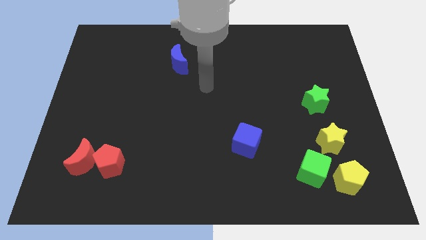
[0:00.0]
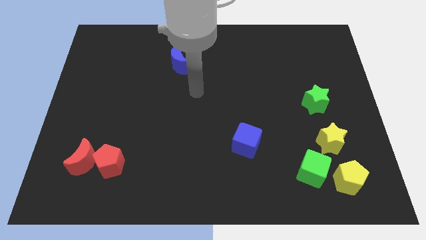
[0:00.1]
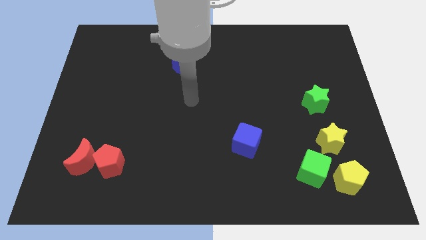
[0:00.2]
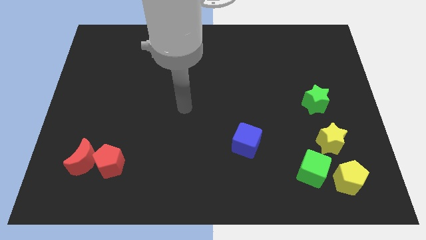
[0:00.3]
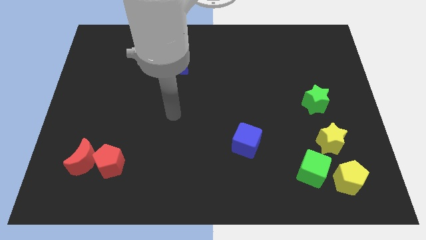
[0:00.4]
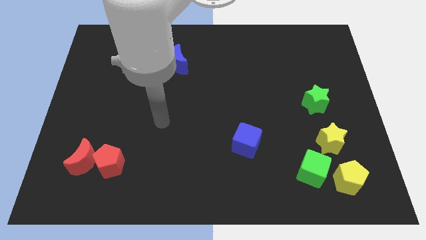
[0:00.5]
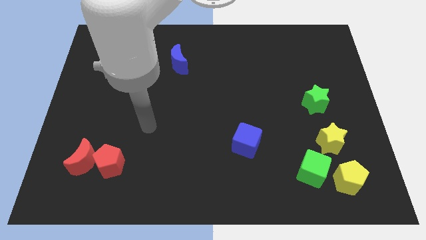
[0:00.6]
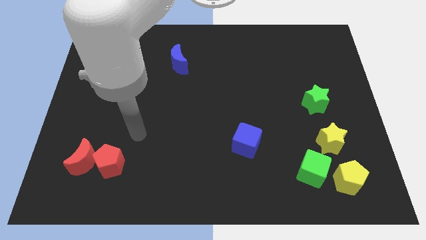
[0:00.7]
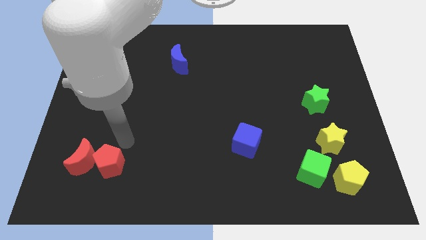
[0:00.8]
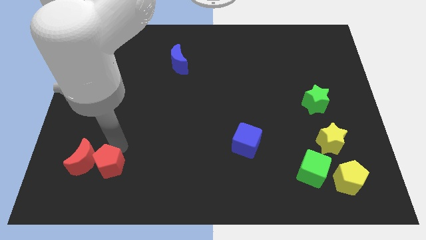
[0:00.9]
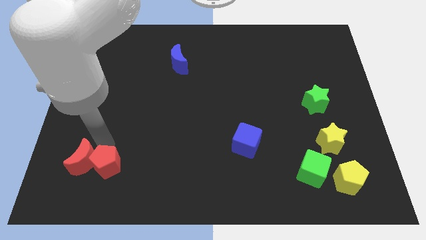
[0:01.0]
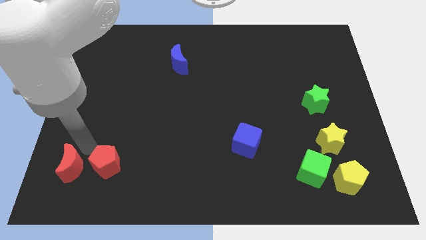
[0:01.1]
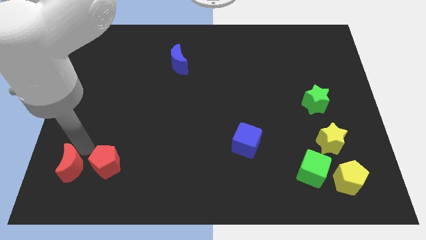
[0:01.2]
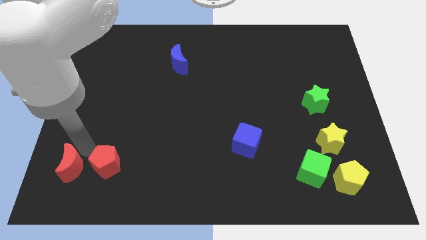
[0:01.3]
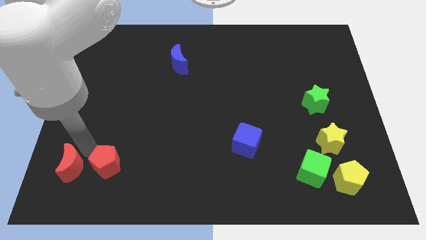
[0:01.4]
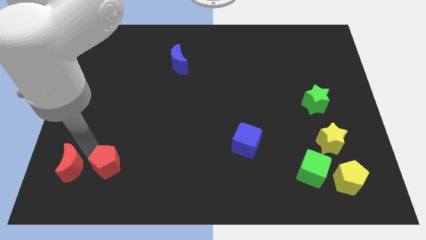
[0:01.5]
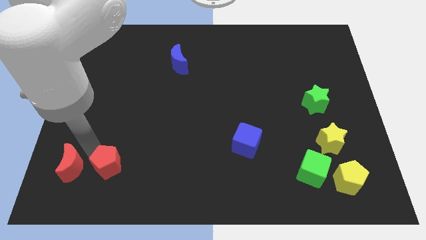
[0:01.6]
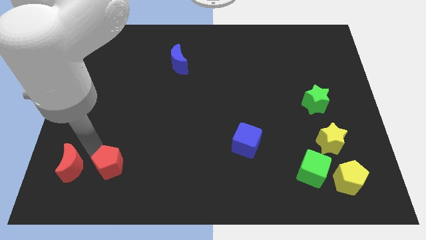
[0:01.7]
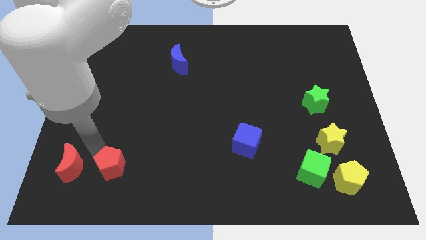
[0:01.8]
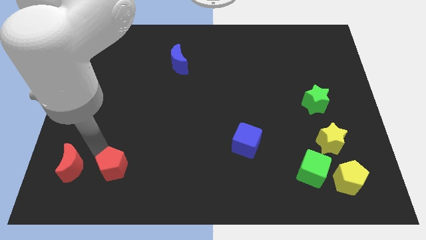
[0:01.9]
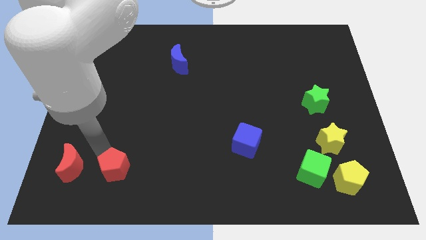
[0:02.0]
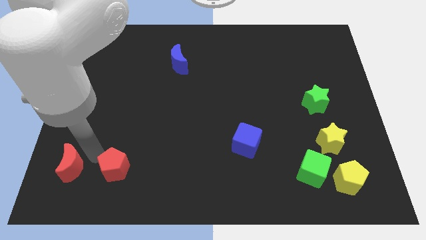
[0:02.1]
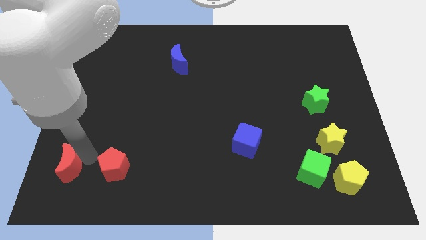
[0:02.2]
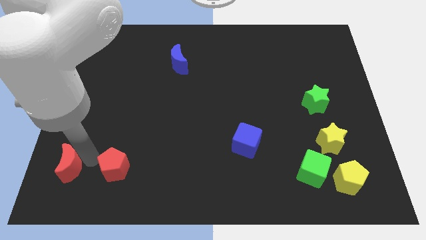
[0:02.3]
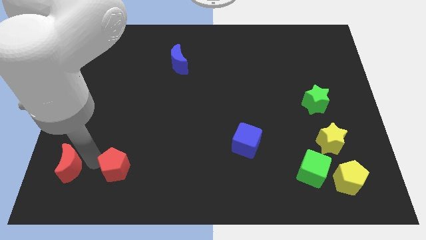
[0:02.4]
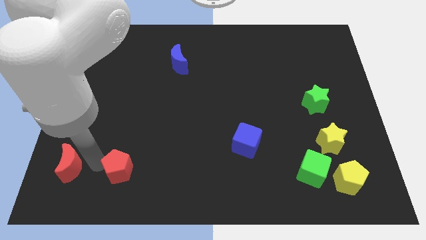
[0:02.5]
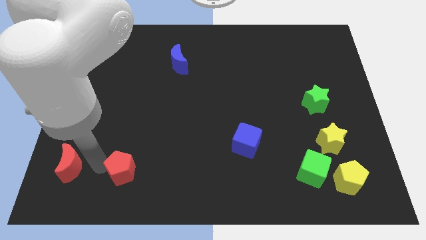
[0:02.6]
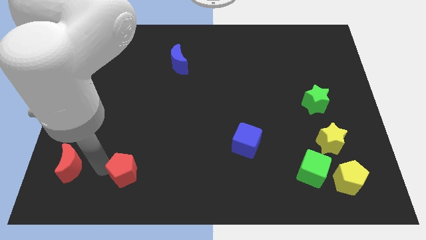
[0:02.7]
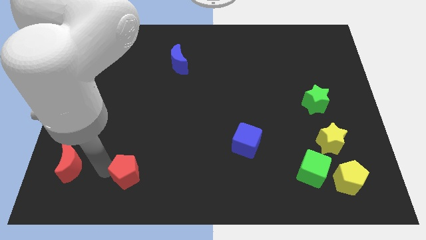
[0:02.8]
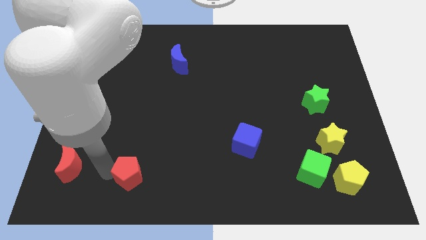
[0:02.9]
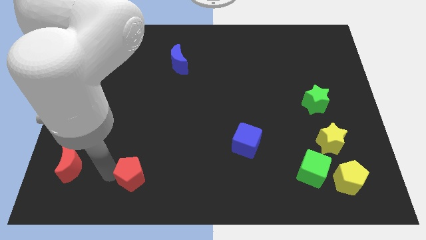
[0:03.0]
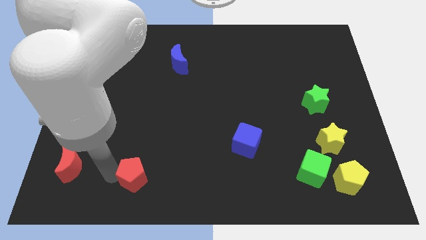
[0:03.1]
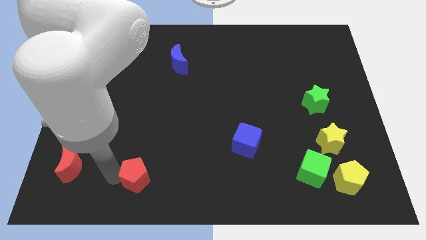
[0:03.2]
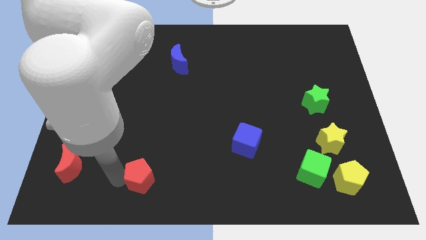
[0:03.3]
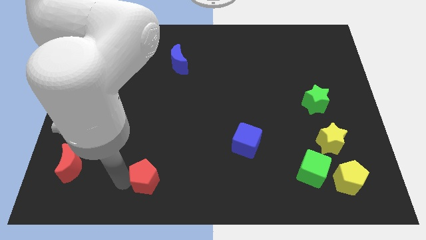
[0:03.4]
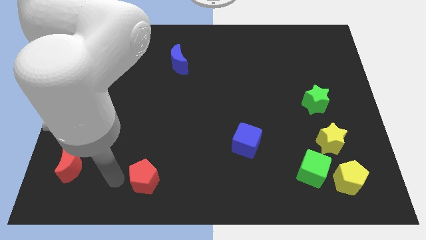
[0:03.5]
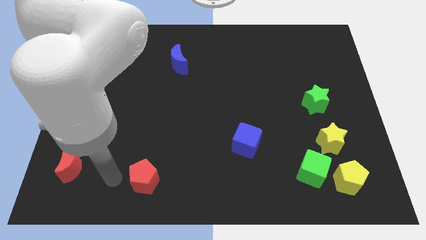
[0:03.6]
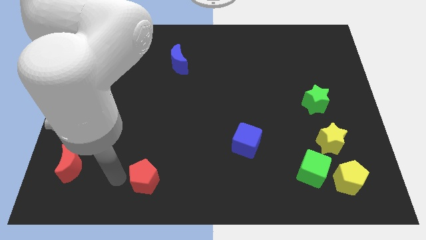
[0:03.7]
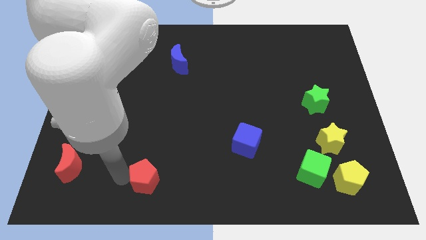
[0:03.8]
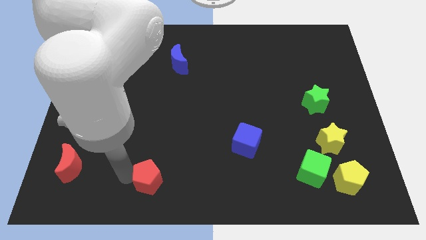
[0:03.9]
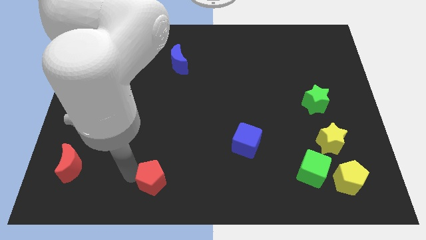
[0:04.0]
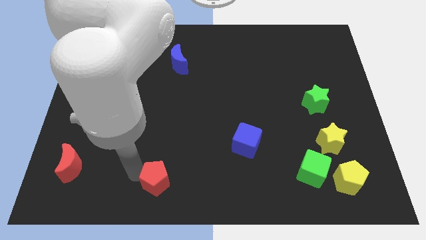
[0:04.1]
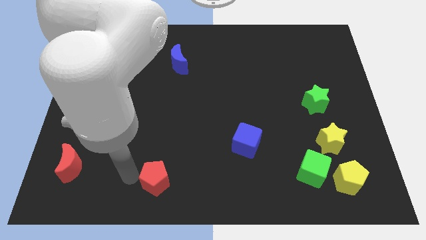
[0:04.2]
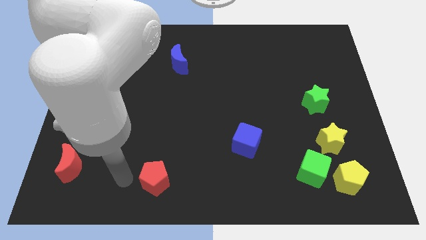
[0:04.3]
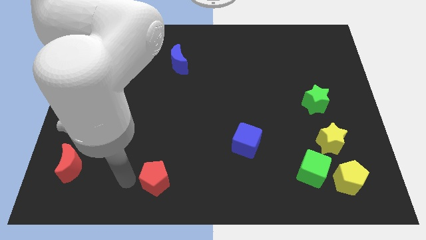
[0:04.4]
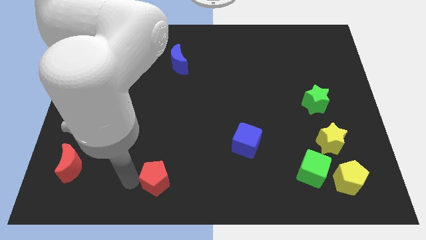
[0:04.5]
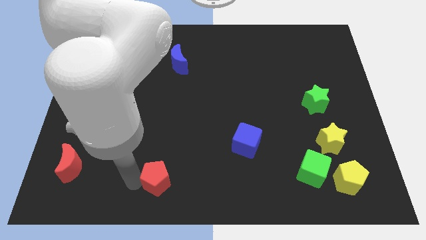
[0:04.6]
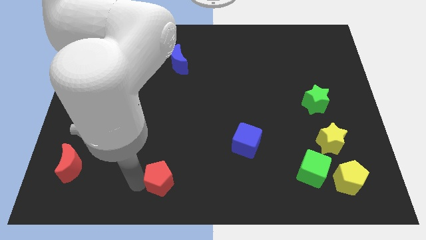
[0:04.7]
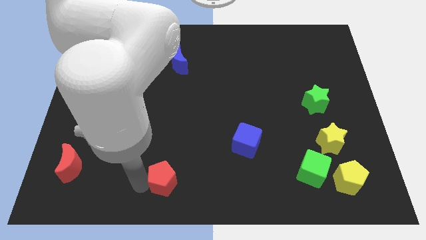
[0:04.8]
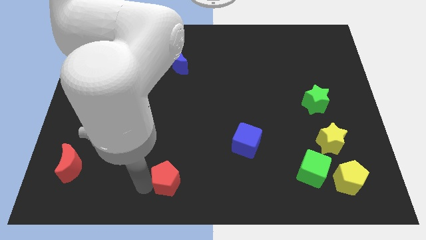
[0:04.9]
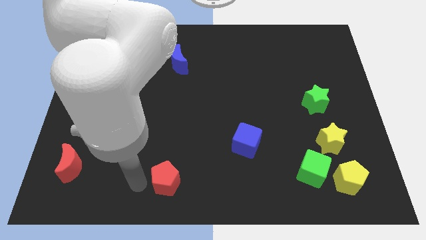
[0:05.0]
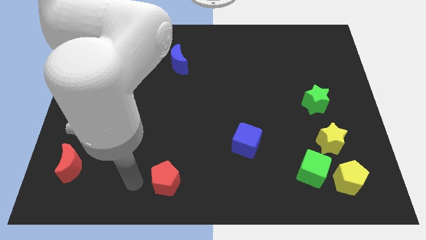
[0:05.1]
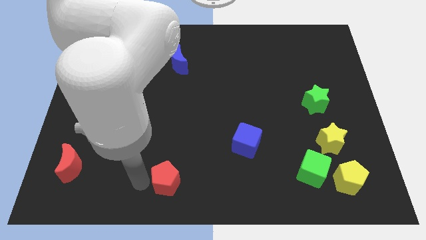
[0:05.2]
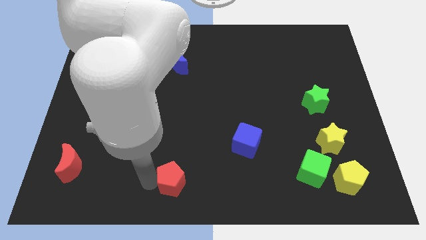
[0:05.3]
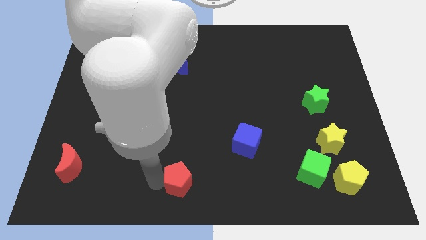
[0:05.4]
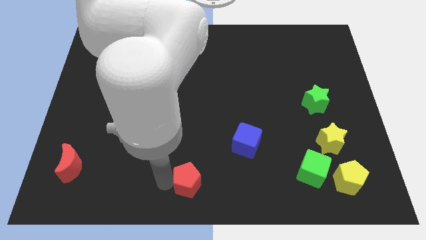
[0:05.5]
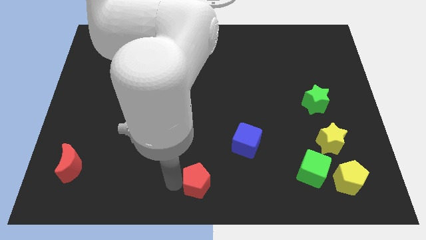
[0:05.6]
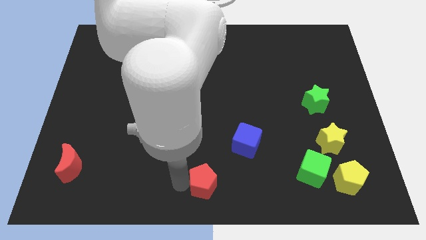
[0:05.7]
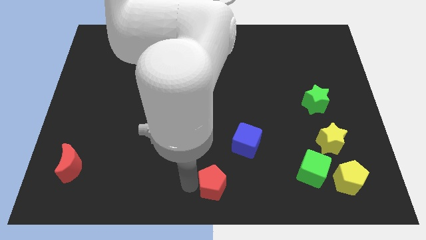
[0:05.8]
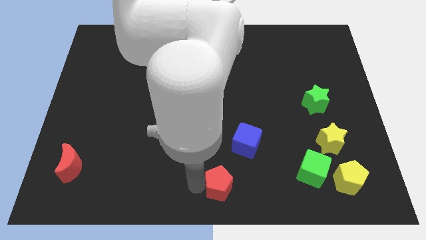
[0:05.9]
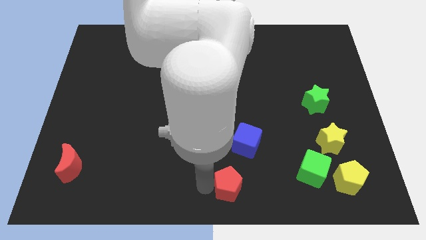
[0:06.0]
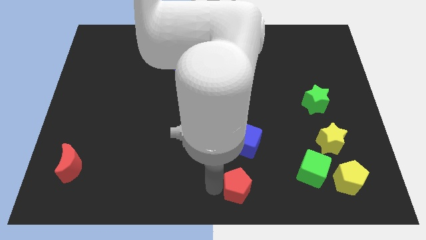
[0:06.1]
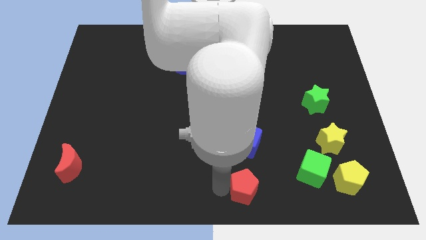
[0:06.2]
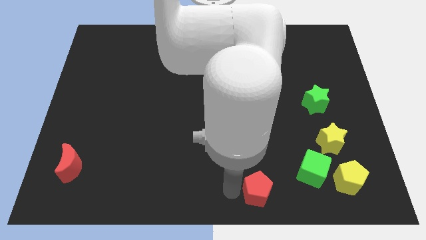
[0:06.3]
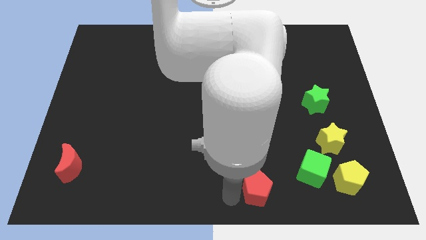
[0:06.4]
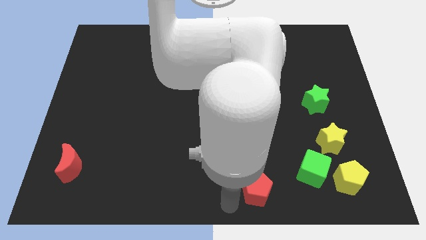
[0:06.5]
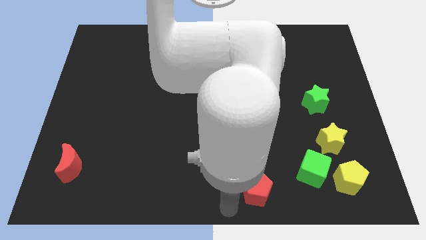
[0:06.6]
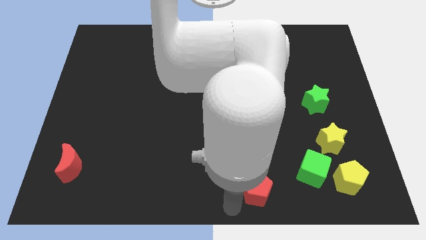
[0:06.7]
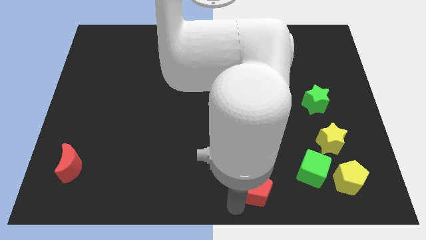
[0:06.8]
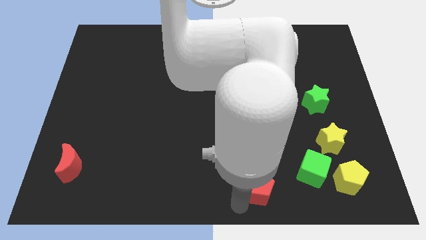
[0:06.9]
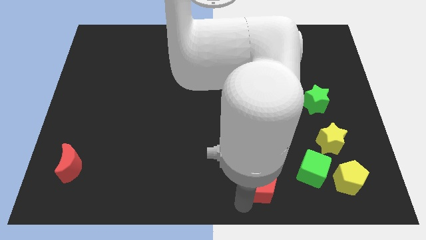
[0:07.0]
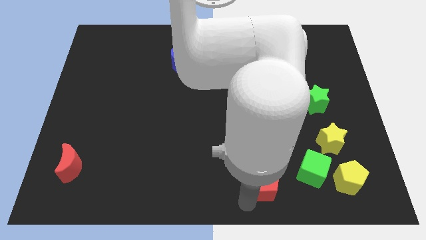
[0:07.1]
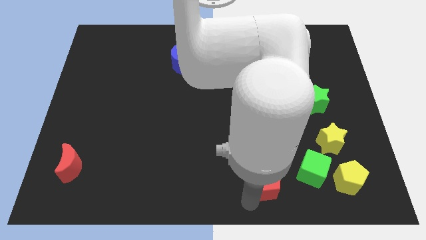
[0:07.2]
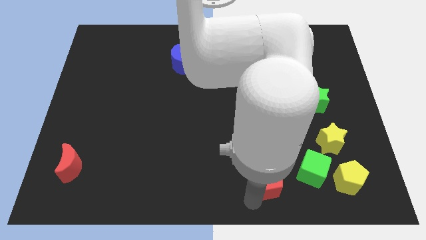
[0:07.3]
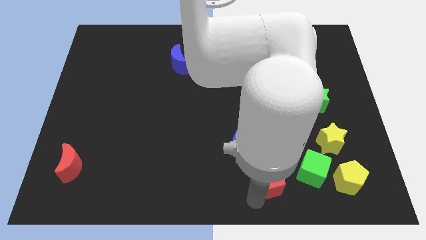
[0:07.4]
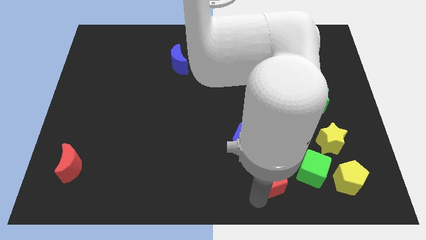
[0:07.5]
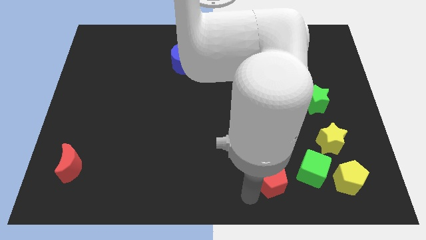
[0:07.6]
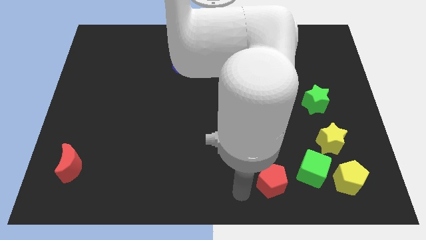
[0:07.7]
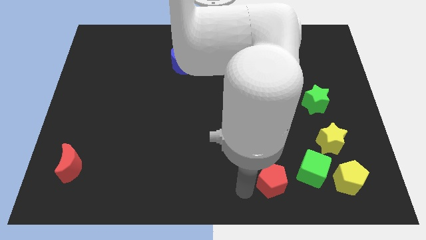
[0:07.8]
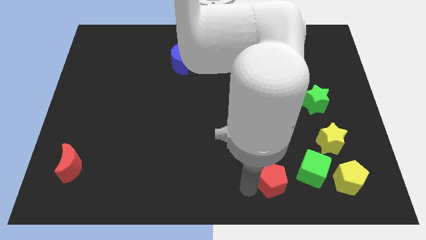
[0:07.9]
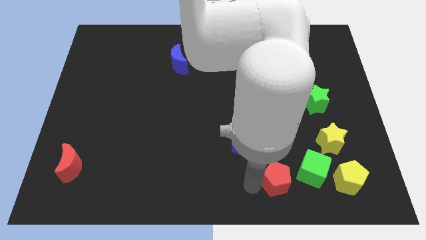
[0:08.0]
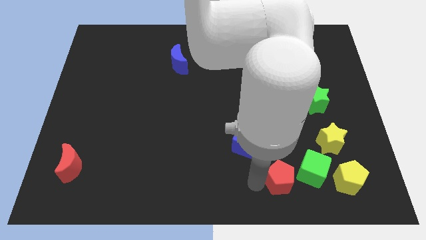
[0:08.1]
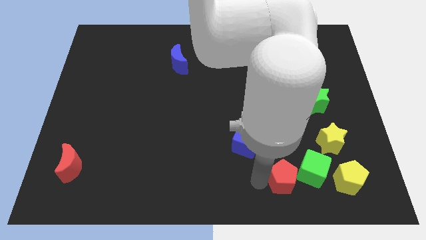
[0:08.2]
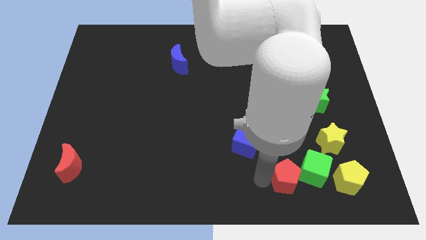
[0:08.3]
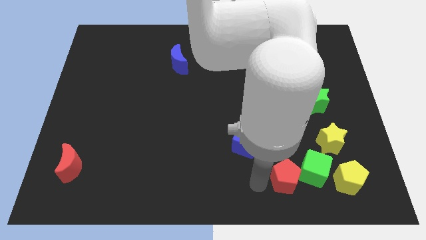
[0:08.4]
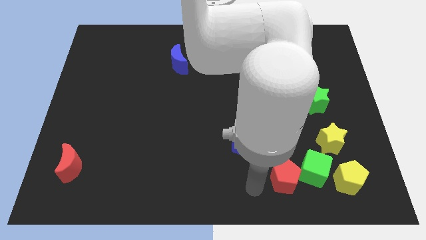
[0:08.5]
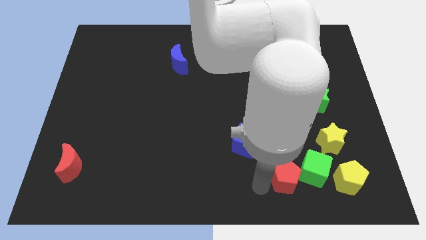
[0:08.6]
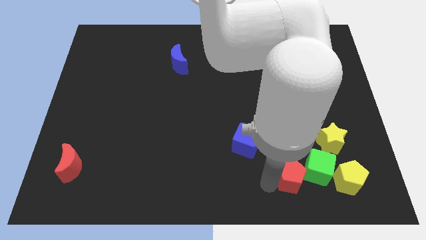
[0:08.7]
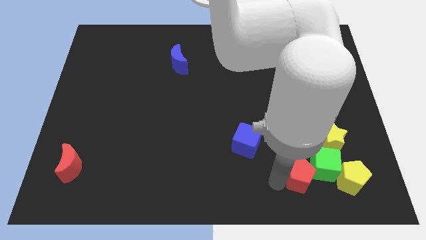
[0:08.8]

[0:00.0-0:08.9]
push the red pentagon close to the green cube
